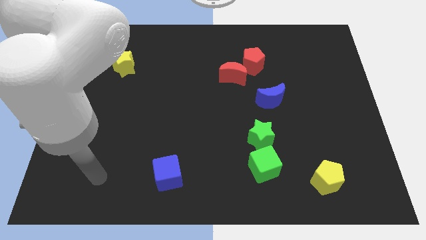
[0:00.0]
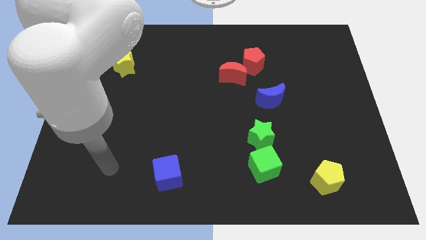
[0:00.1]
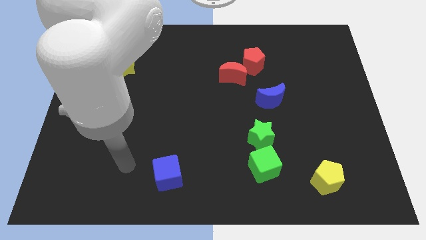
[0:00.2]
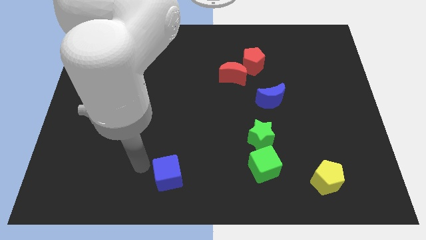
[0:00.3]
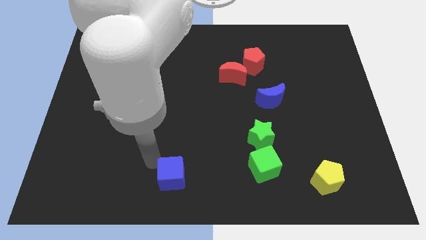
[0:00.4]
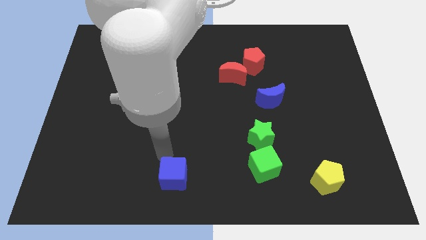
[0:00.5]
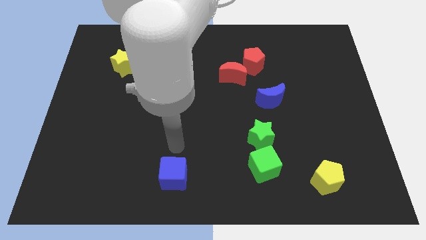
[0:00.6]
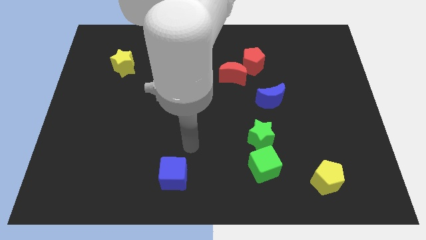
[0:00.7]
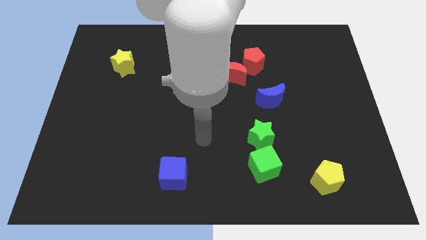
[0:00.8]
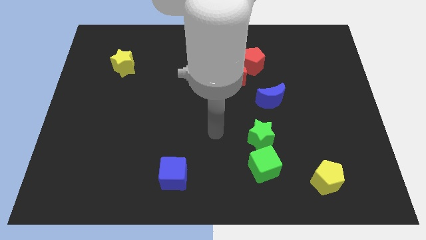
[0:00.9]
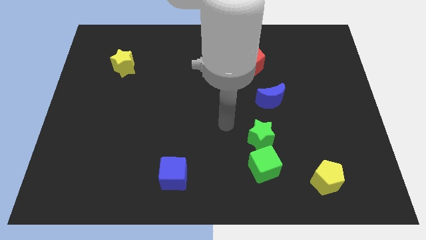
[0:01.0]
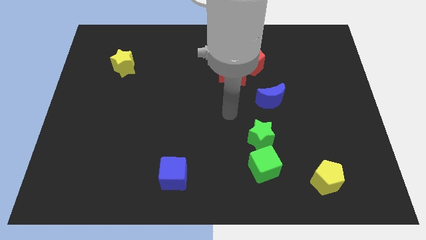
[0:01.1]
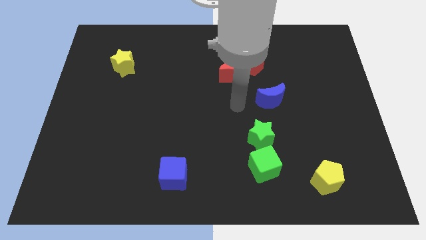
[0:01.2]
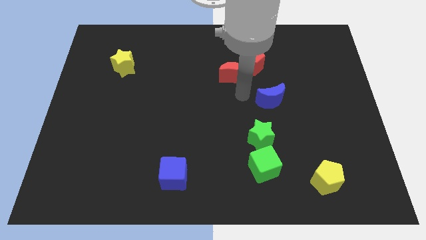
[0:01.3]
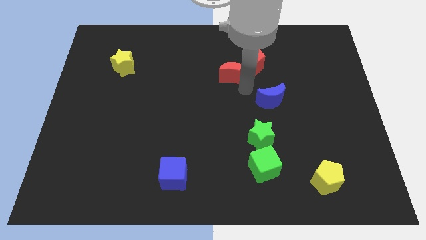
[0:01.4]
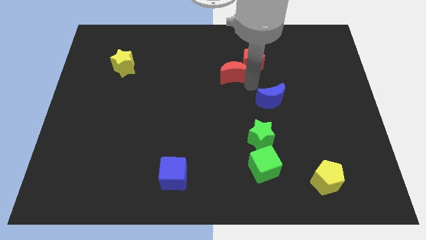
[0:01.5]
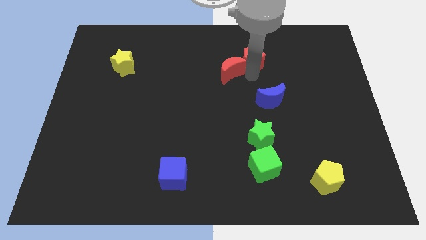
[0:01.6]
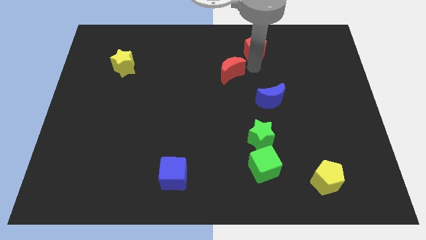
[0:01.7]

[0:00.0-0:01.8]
move the red moon away from the red pentagon

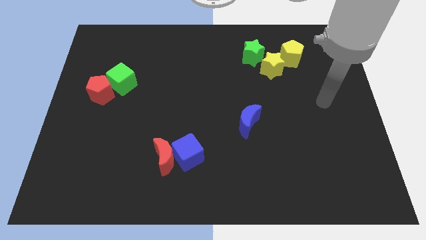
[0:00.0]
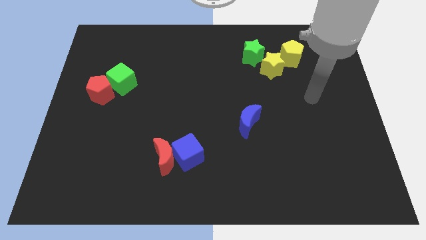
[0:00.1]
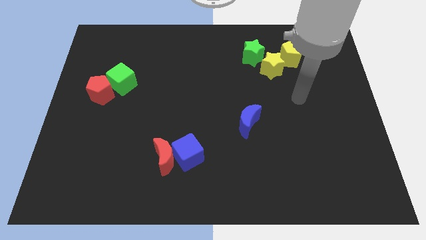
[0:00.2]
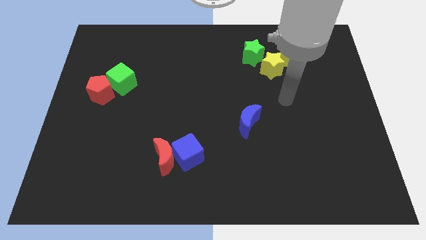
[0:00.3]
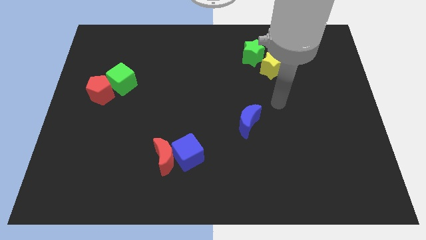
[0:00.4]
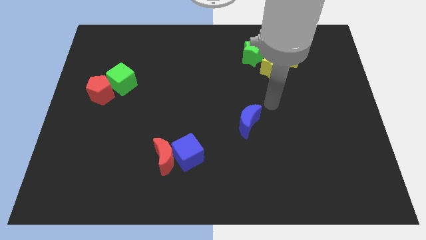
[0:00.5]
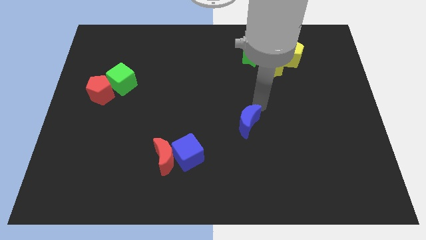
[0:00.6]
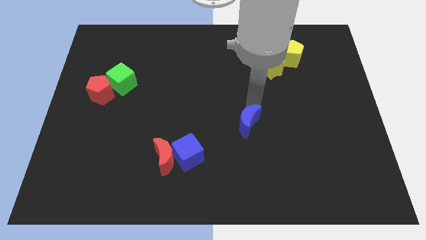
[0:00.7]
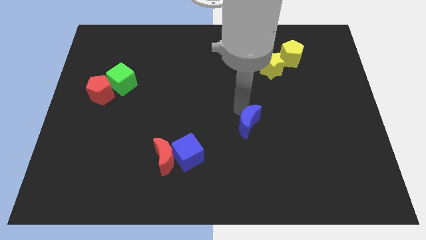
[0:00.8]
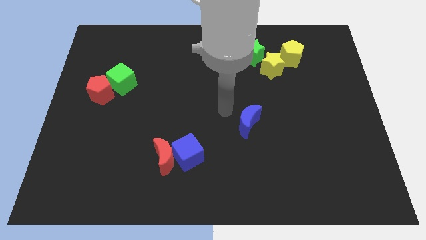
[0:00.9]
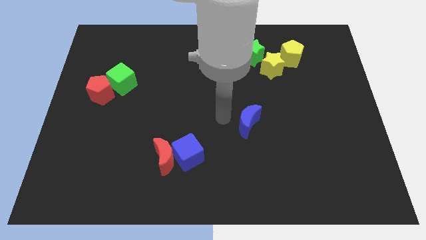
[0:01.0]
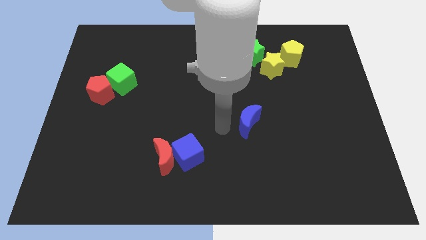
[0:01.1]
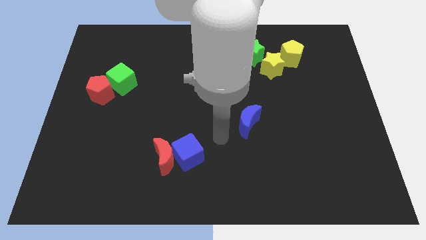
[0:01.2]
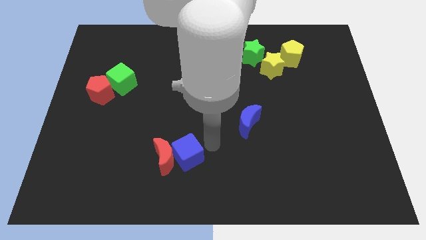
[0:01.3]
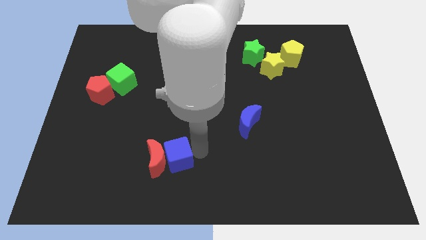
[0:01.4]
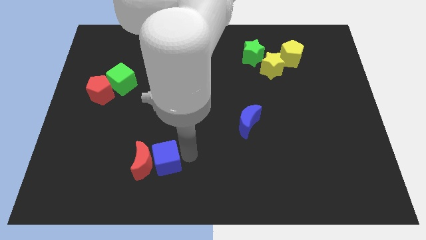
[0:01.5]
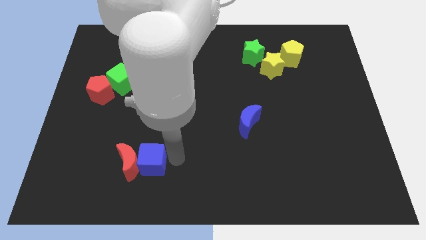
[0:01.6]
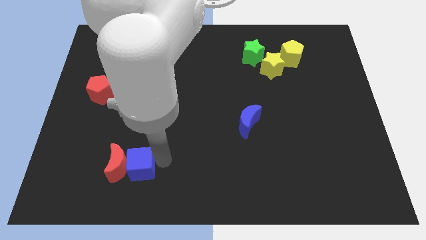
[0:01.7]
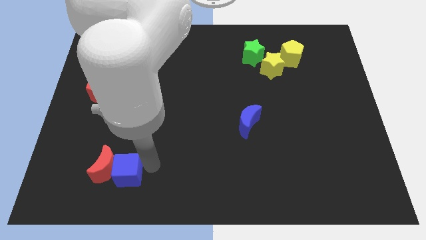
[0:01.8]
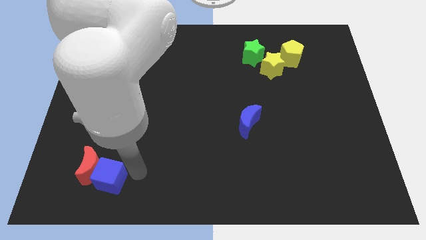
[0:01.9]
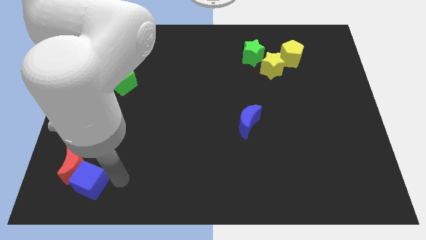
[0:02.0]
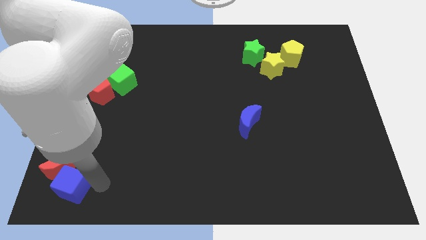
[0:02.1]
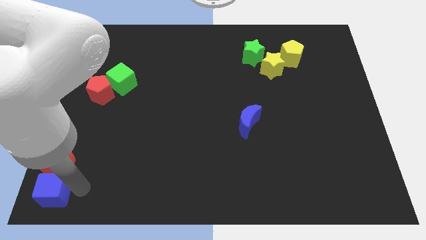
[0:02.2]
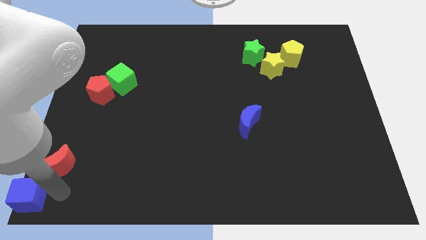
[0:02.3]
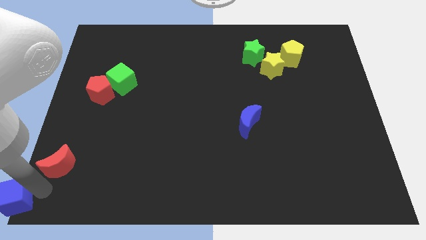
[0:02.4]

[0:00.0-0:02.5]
move the red moon away from the blue cube

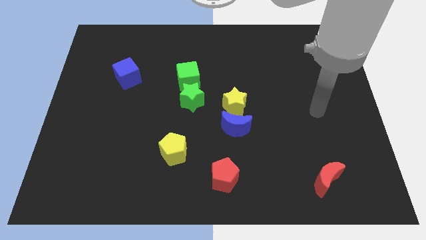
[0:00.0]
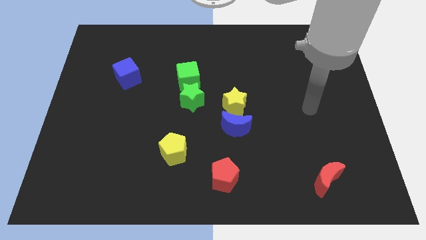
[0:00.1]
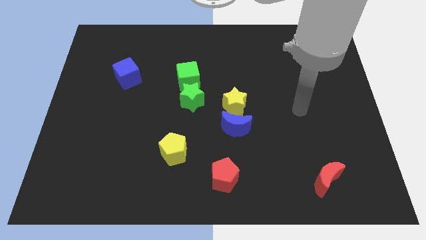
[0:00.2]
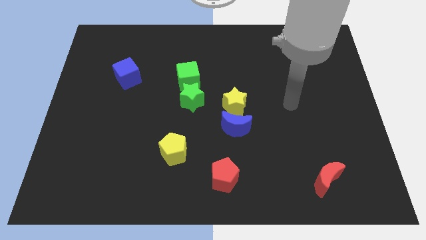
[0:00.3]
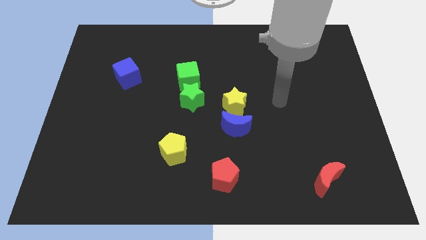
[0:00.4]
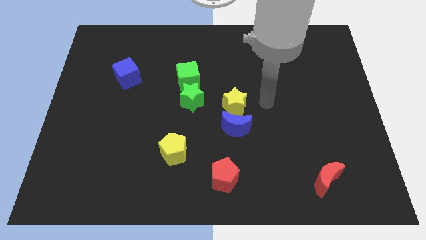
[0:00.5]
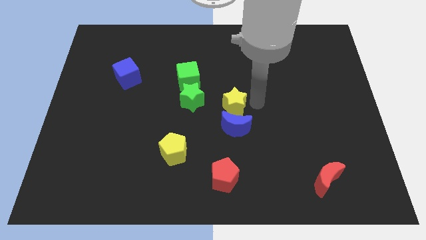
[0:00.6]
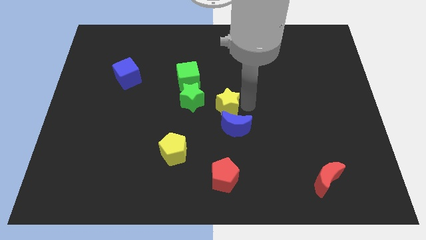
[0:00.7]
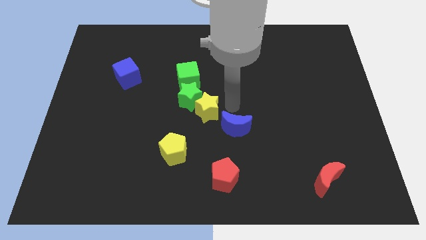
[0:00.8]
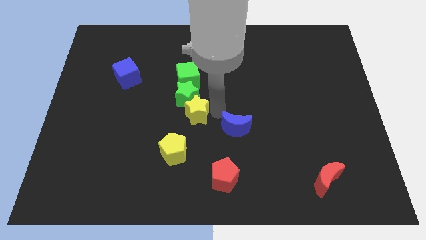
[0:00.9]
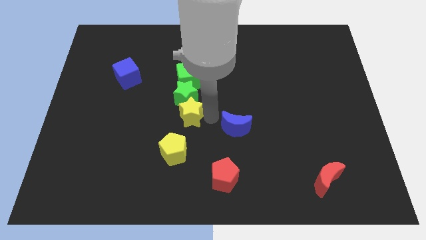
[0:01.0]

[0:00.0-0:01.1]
move the blue moon away from the yellow star

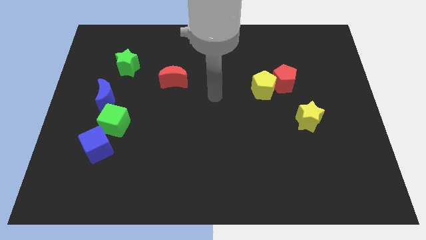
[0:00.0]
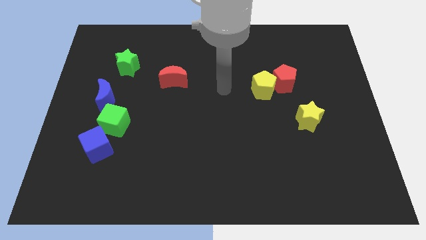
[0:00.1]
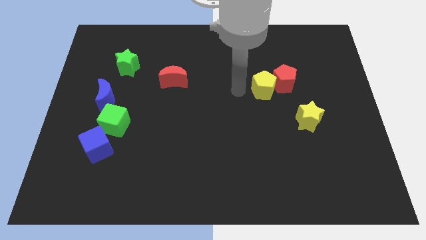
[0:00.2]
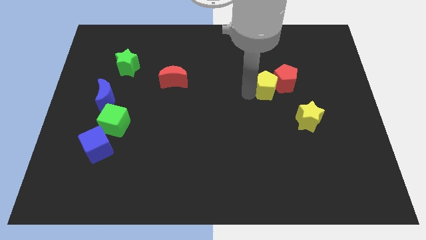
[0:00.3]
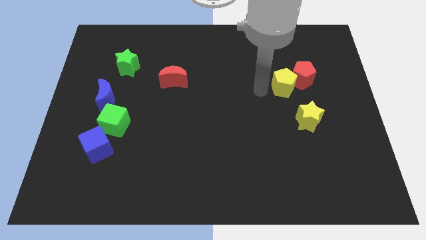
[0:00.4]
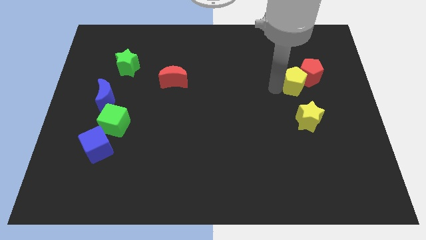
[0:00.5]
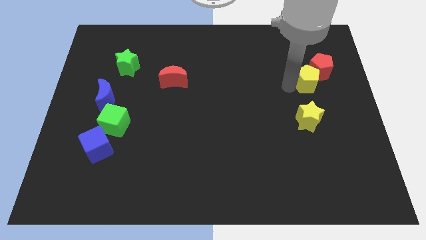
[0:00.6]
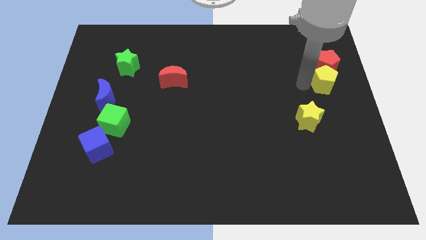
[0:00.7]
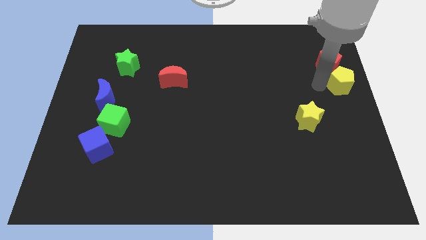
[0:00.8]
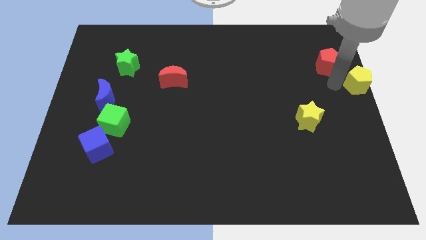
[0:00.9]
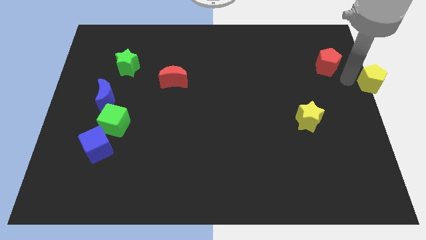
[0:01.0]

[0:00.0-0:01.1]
move the red pentagon away from the yellow pentagon

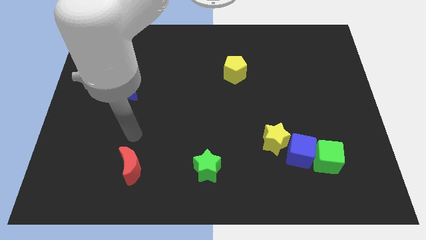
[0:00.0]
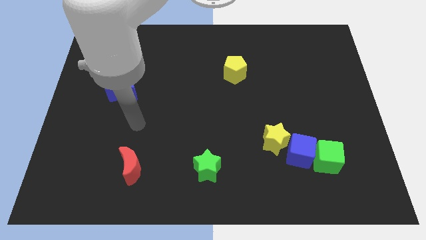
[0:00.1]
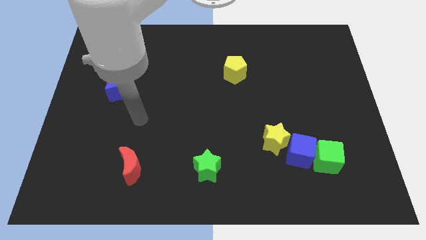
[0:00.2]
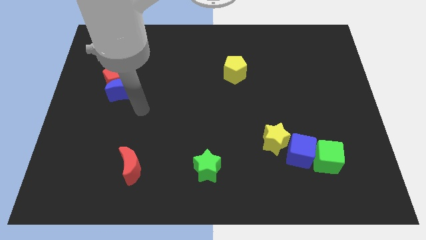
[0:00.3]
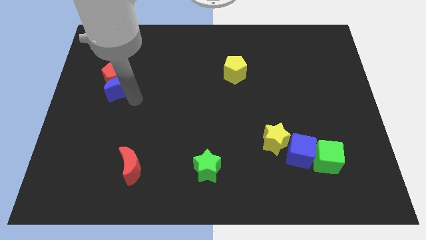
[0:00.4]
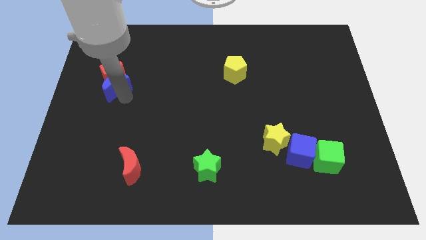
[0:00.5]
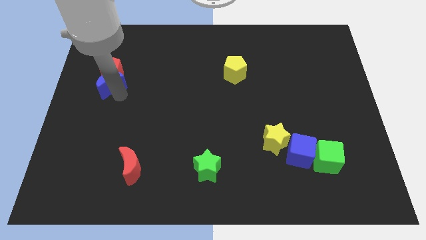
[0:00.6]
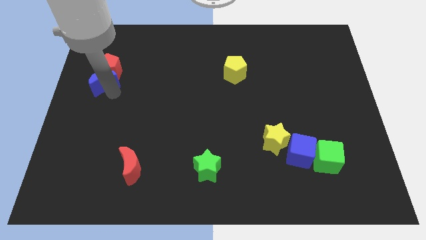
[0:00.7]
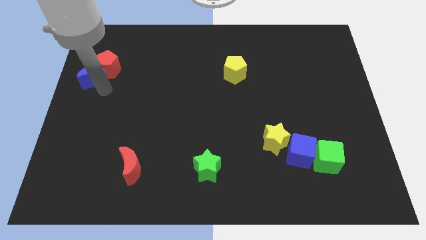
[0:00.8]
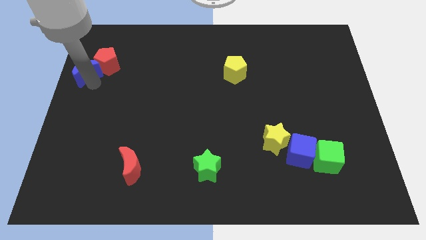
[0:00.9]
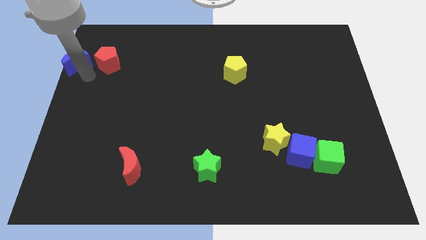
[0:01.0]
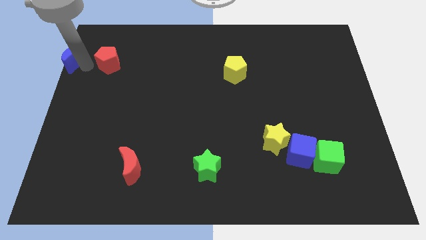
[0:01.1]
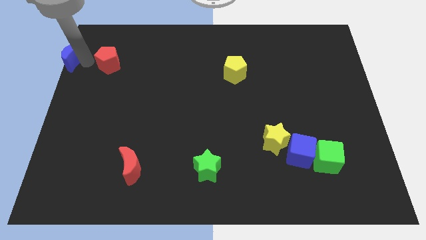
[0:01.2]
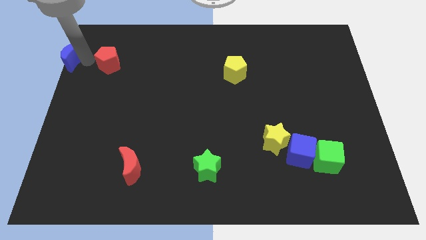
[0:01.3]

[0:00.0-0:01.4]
move the red pentagon away from the blue moon

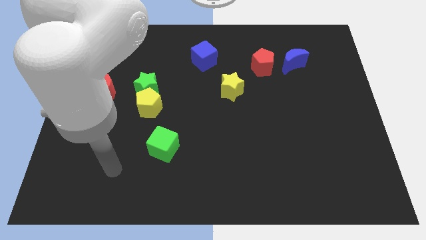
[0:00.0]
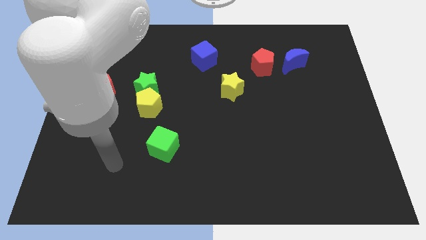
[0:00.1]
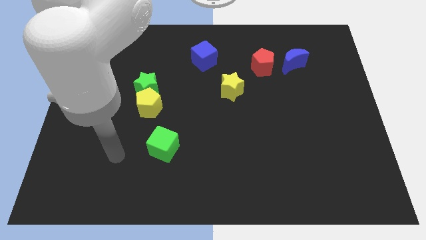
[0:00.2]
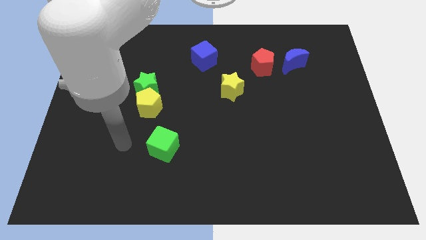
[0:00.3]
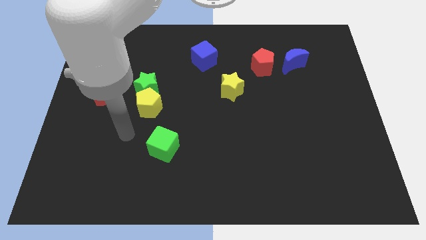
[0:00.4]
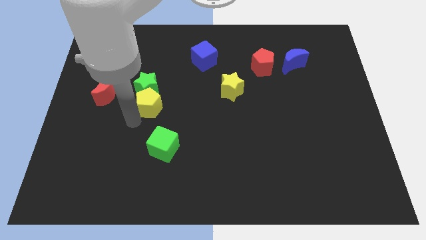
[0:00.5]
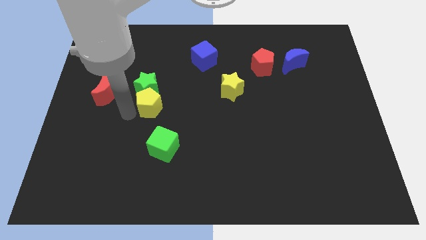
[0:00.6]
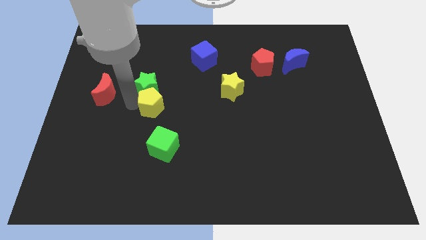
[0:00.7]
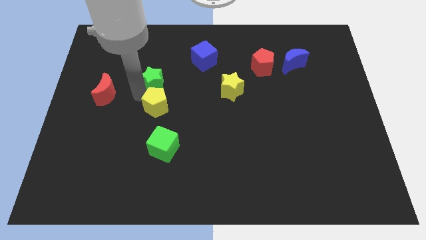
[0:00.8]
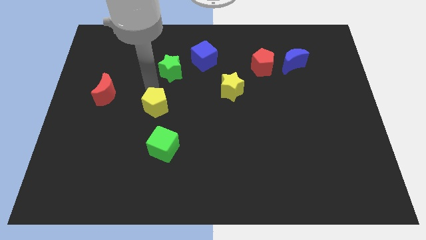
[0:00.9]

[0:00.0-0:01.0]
move the yellow pentagon away from the green star

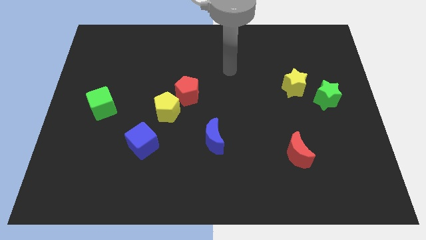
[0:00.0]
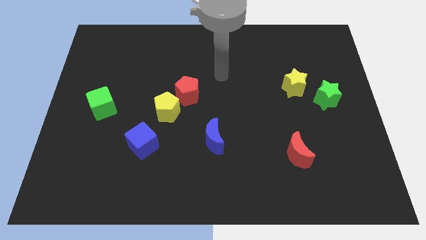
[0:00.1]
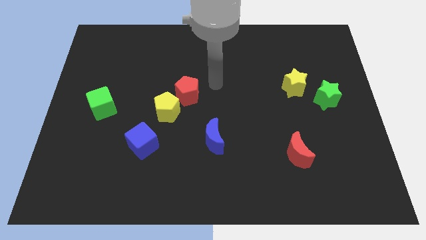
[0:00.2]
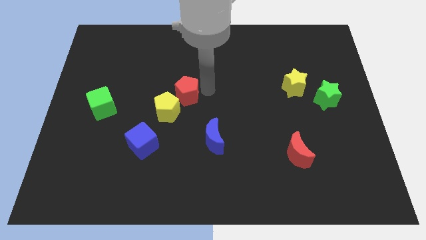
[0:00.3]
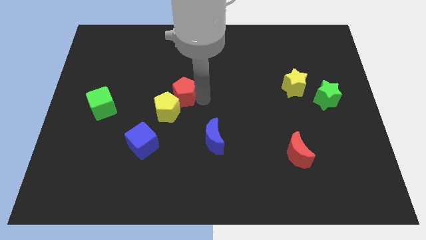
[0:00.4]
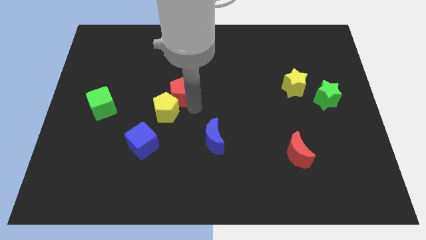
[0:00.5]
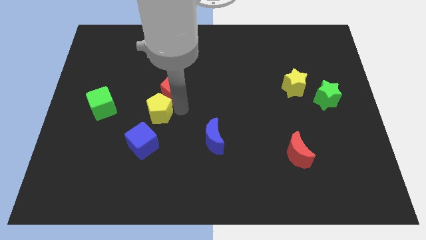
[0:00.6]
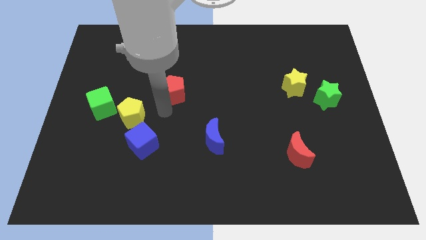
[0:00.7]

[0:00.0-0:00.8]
pull the red pentagon apart from the yellow pentagon
